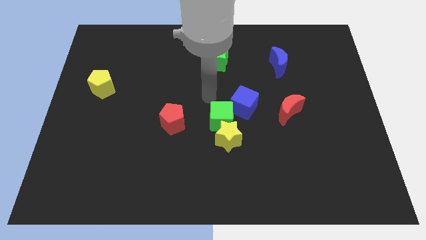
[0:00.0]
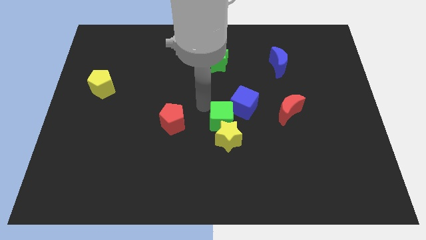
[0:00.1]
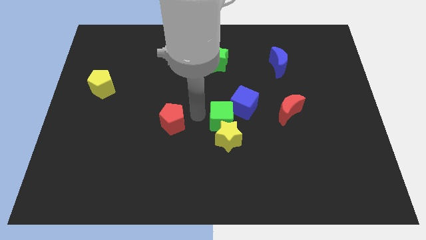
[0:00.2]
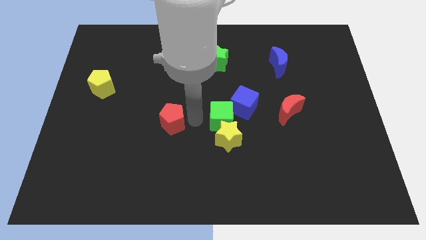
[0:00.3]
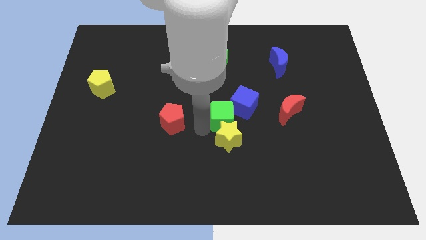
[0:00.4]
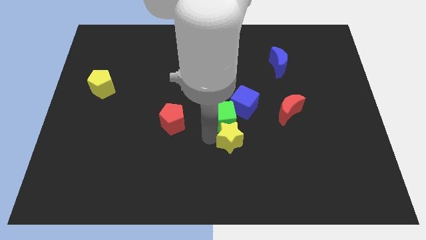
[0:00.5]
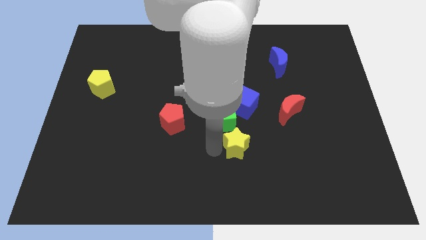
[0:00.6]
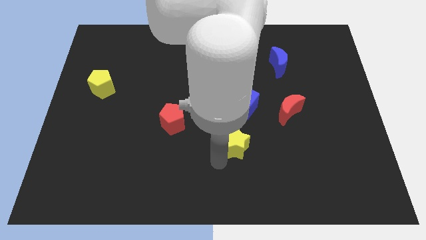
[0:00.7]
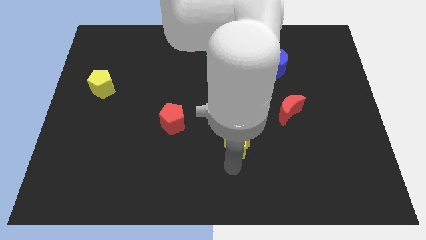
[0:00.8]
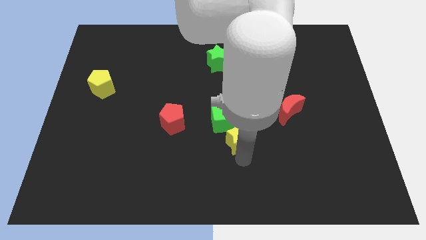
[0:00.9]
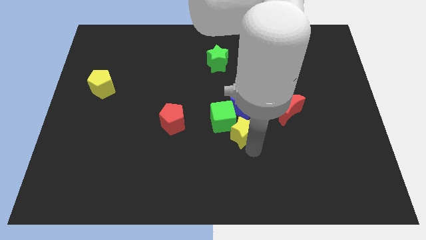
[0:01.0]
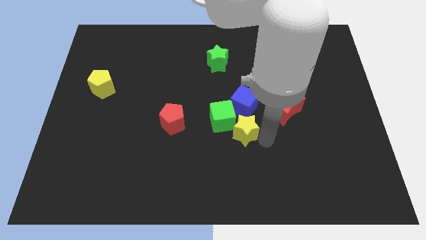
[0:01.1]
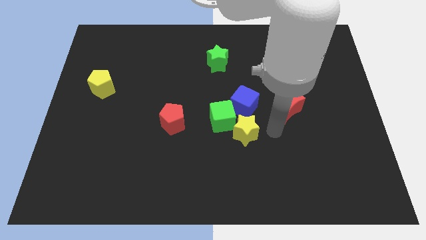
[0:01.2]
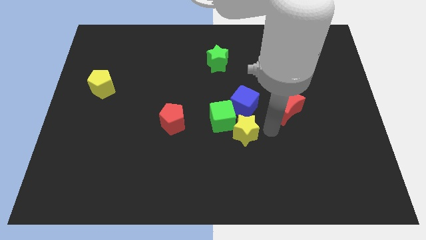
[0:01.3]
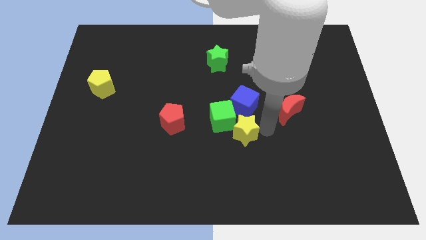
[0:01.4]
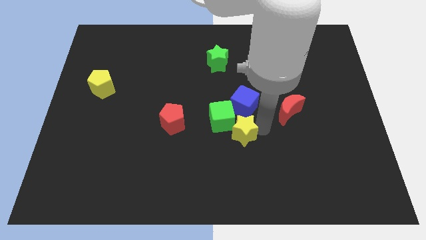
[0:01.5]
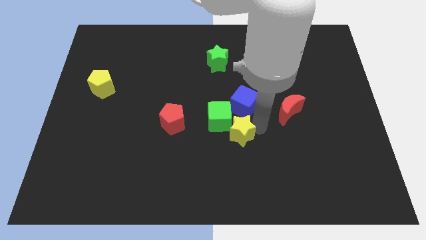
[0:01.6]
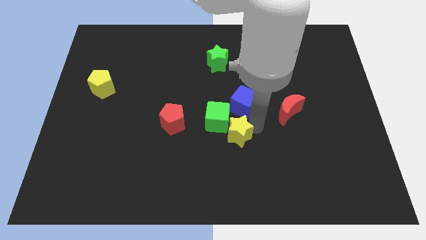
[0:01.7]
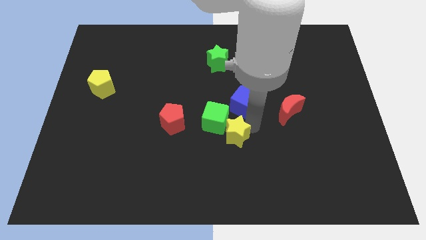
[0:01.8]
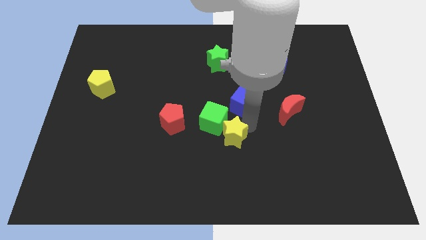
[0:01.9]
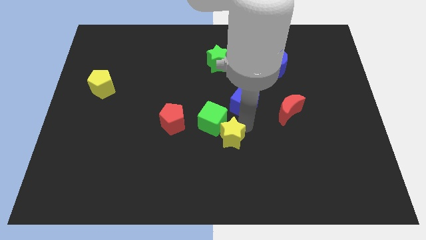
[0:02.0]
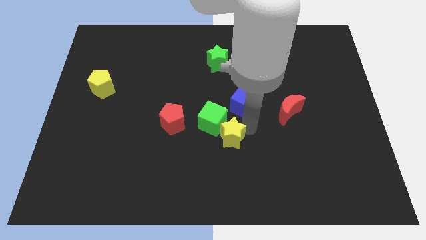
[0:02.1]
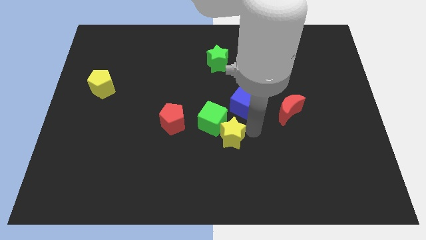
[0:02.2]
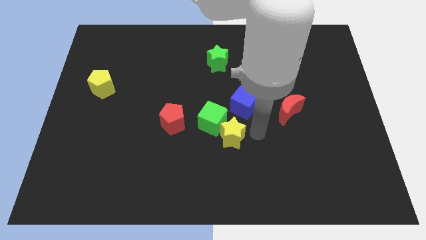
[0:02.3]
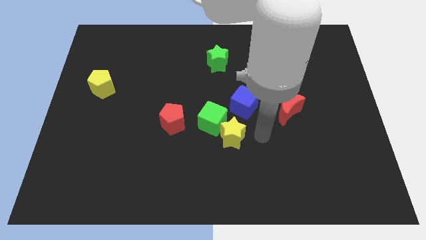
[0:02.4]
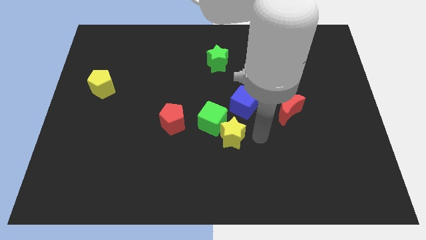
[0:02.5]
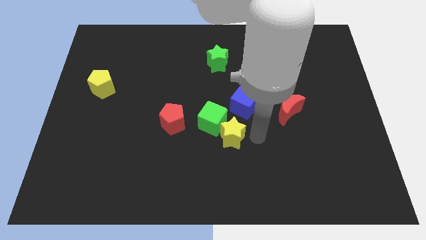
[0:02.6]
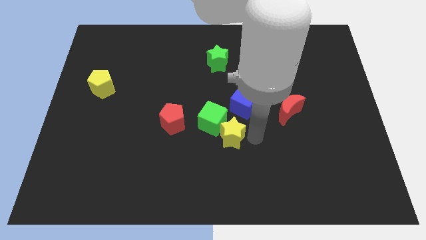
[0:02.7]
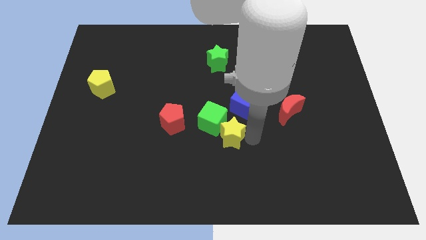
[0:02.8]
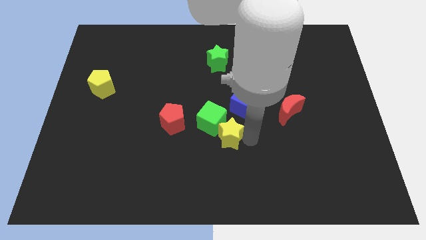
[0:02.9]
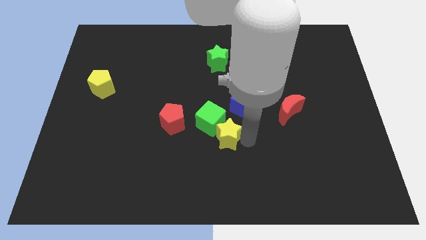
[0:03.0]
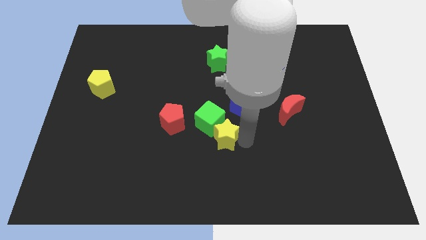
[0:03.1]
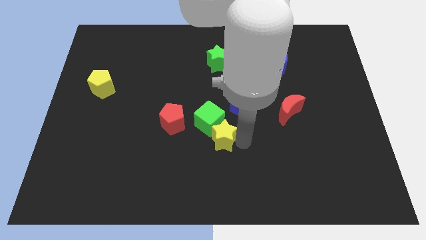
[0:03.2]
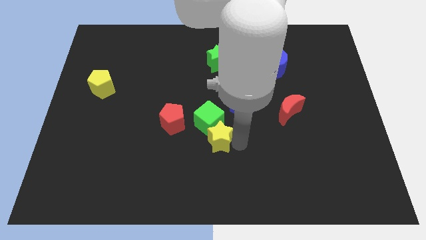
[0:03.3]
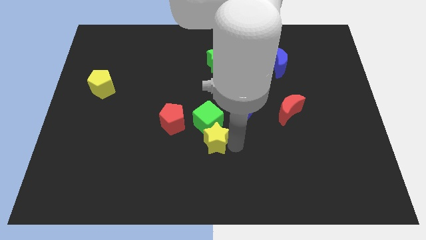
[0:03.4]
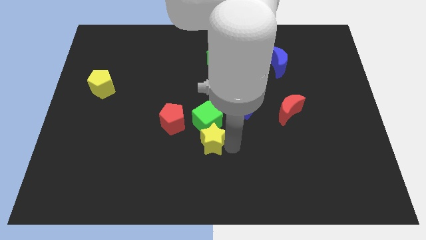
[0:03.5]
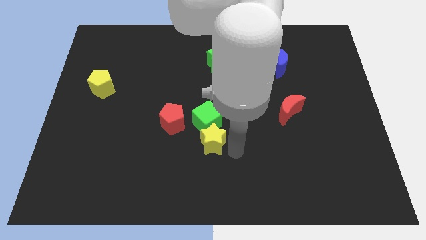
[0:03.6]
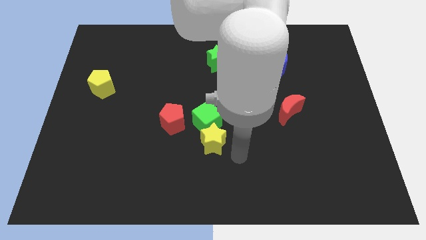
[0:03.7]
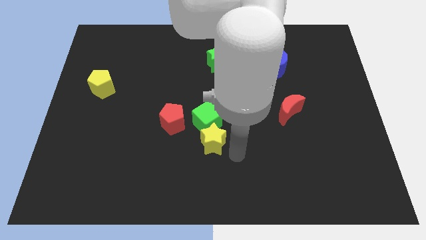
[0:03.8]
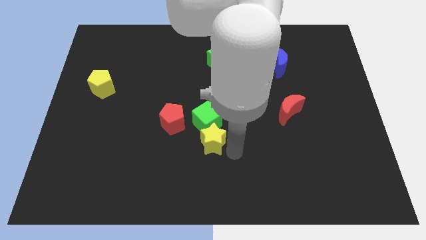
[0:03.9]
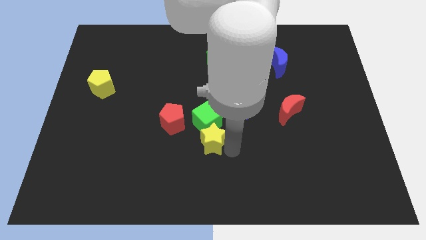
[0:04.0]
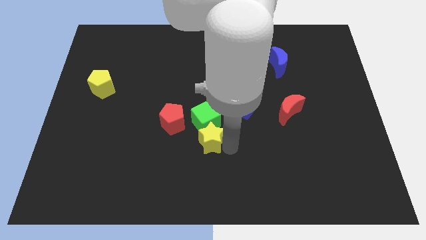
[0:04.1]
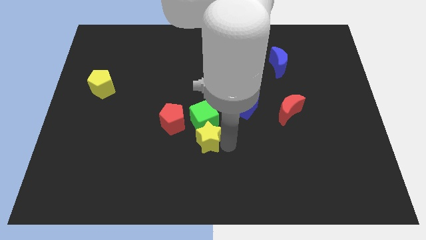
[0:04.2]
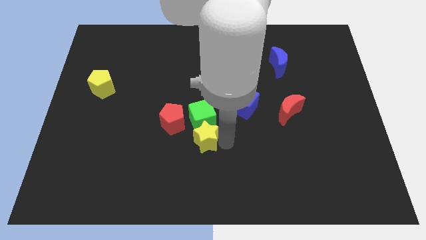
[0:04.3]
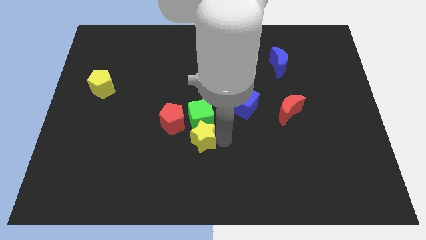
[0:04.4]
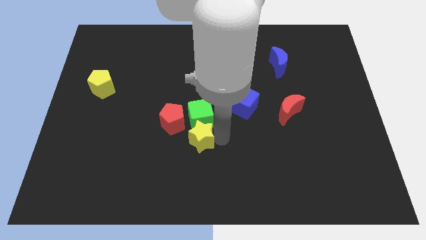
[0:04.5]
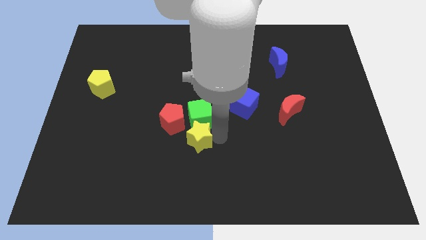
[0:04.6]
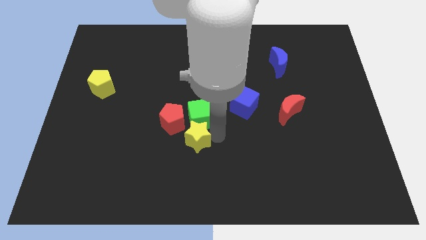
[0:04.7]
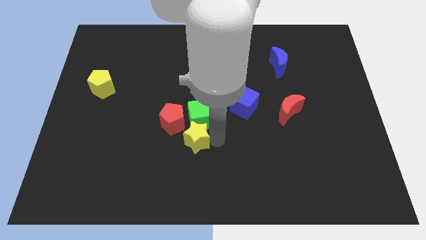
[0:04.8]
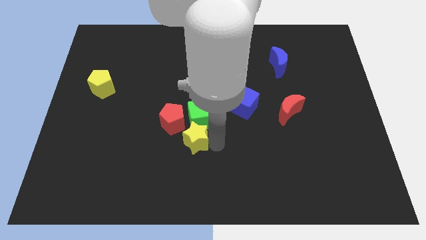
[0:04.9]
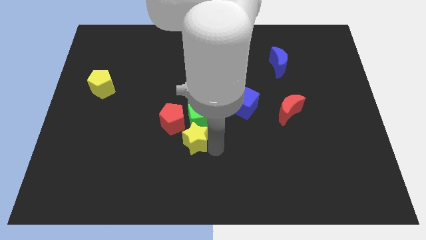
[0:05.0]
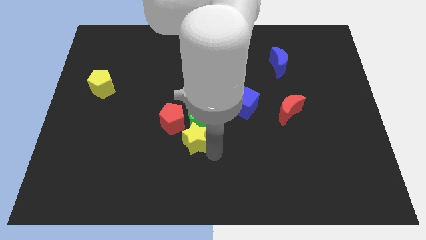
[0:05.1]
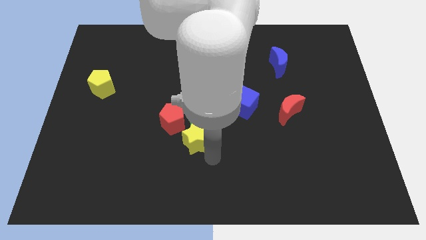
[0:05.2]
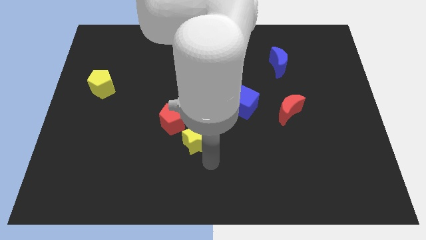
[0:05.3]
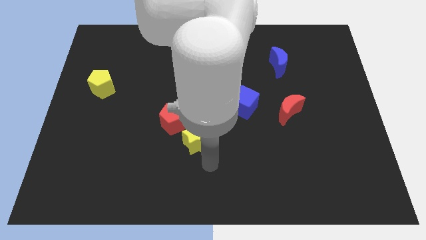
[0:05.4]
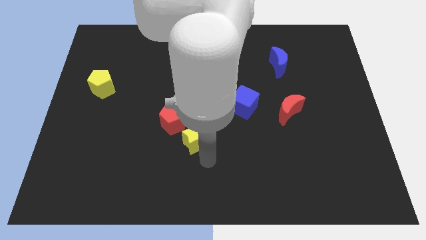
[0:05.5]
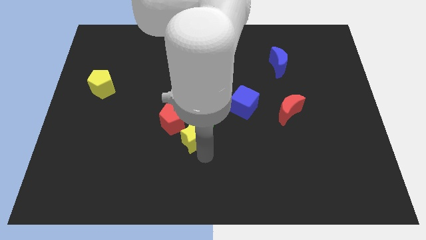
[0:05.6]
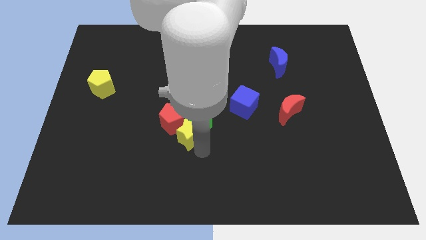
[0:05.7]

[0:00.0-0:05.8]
move the yellow star towards the red pentagon

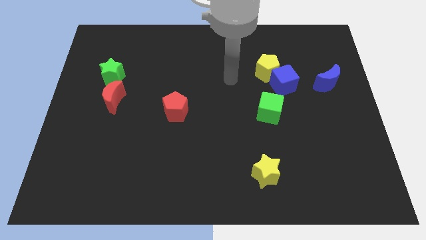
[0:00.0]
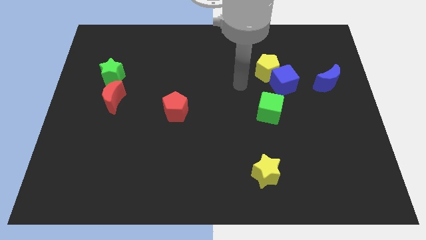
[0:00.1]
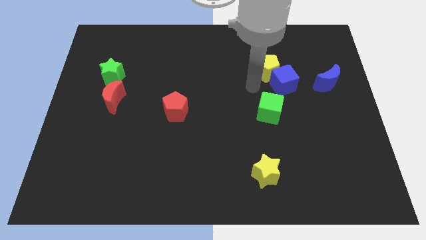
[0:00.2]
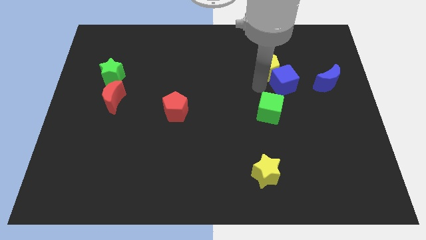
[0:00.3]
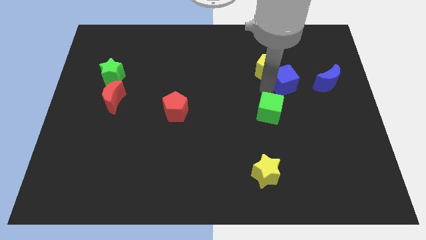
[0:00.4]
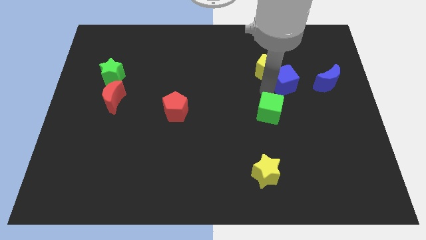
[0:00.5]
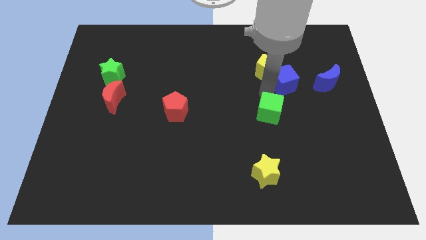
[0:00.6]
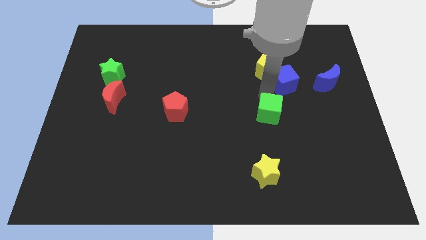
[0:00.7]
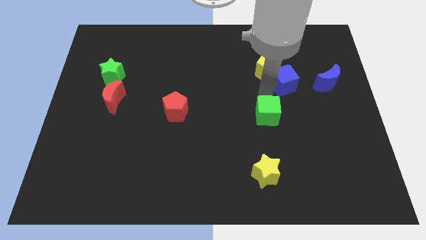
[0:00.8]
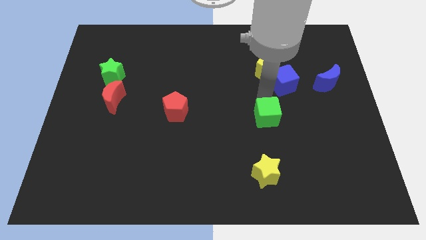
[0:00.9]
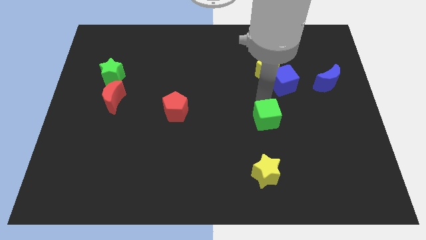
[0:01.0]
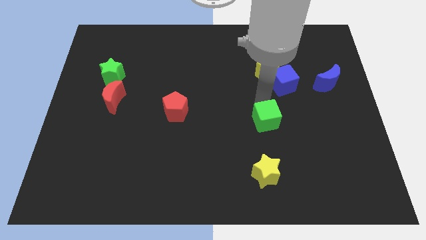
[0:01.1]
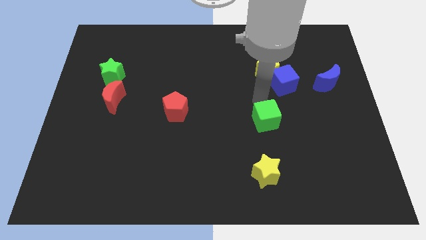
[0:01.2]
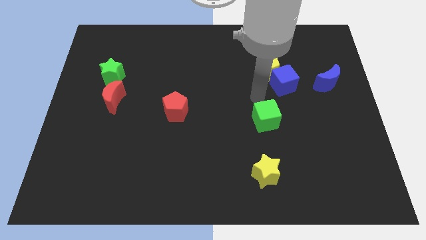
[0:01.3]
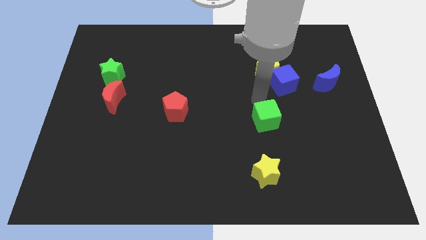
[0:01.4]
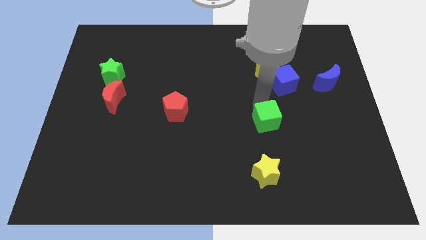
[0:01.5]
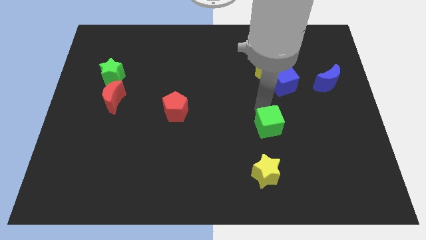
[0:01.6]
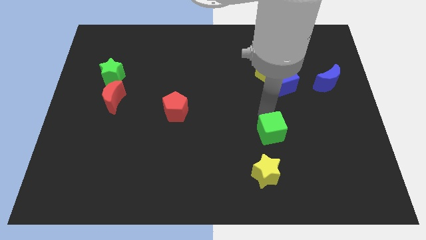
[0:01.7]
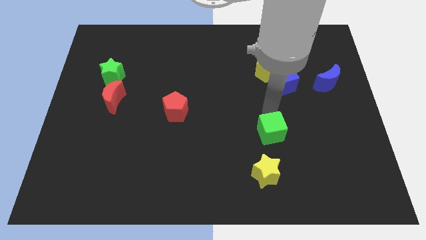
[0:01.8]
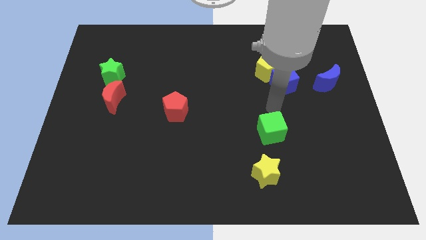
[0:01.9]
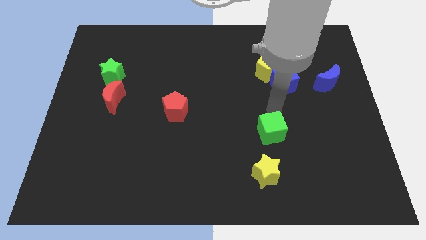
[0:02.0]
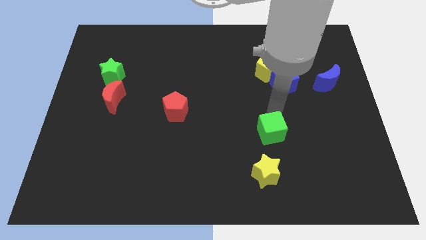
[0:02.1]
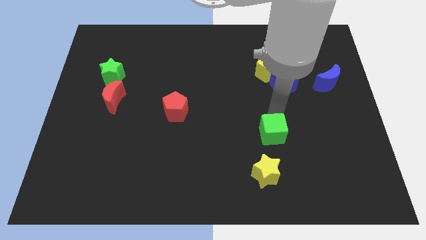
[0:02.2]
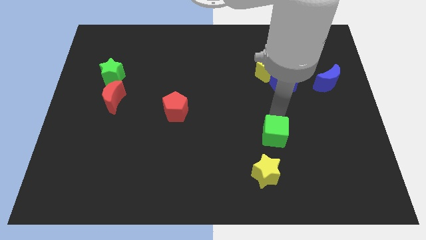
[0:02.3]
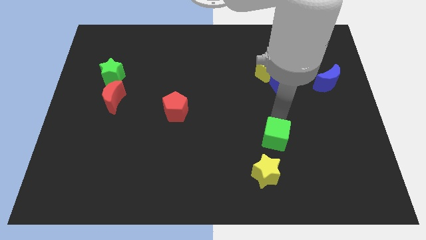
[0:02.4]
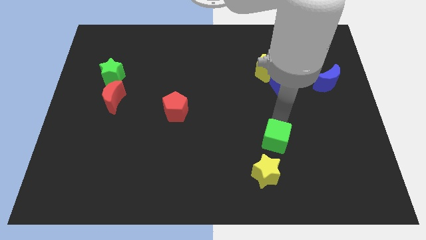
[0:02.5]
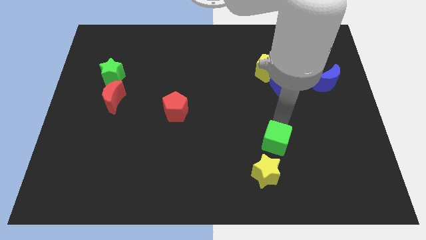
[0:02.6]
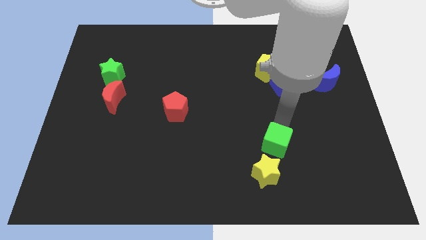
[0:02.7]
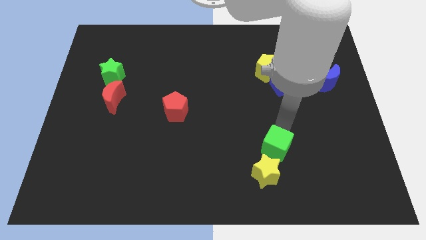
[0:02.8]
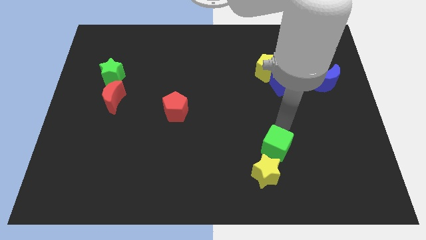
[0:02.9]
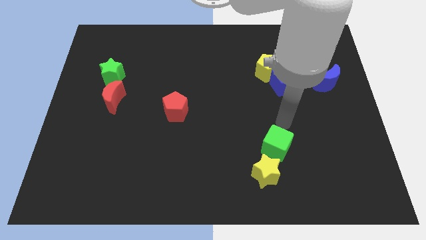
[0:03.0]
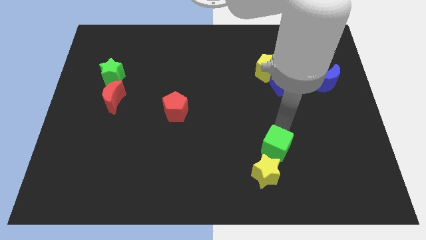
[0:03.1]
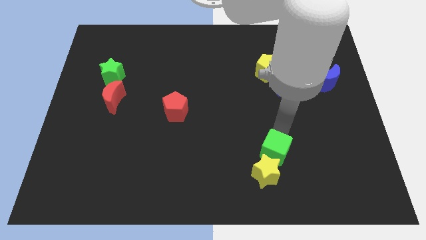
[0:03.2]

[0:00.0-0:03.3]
push the green cube next to the yellow star
